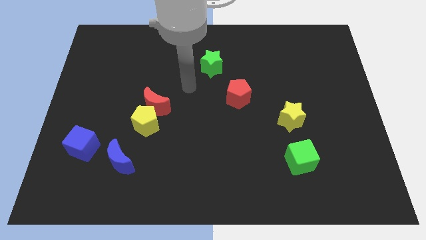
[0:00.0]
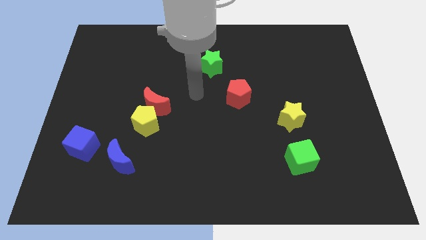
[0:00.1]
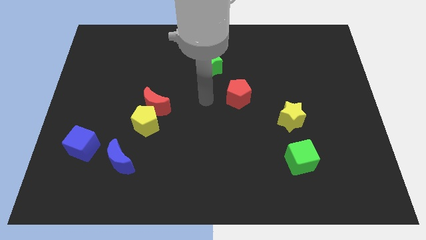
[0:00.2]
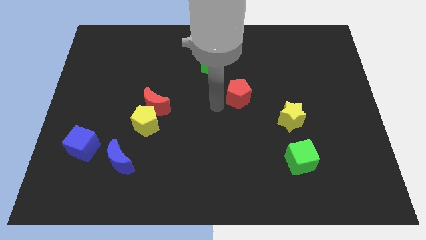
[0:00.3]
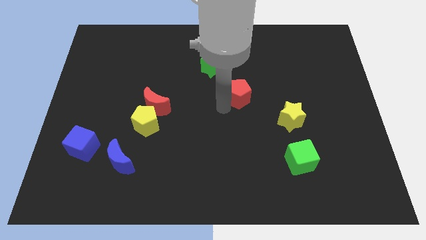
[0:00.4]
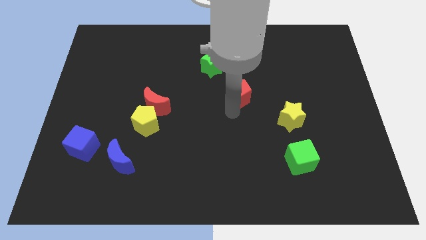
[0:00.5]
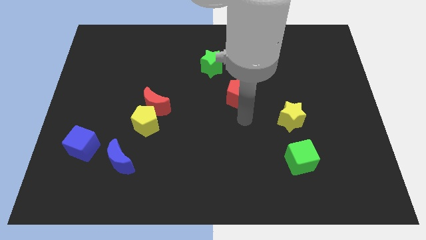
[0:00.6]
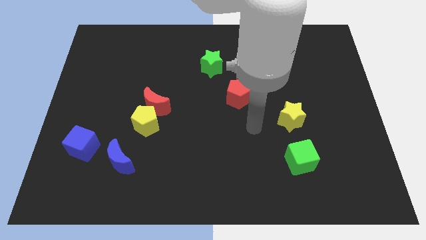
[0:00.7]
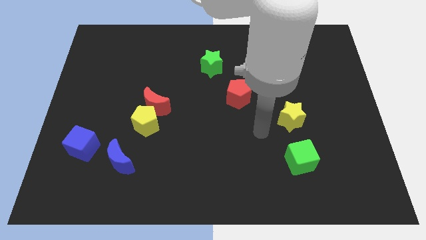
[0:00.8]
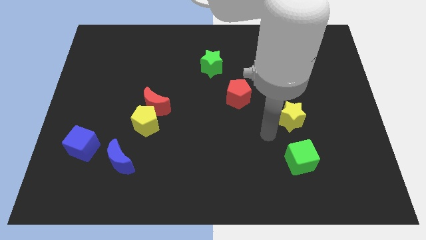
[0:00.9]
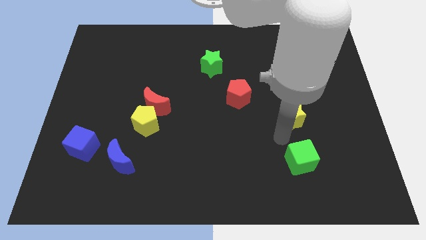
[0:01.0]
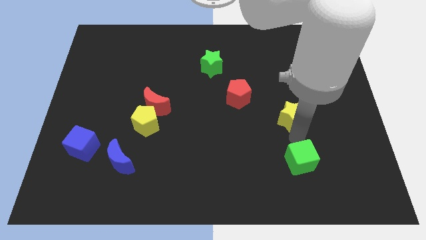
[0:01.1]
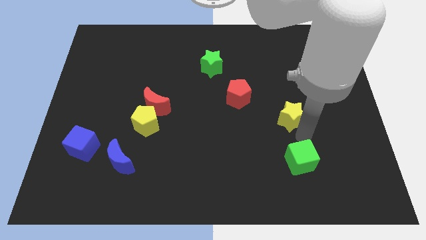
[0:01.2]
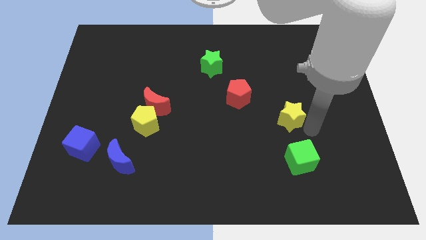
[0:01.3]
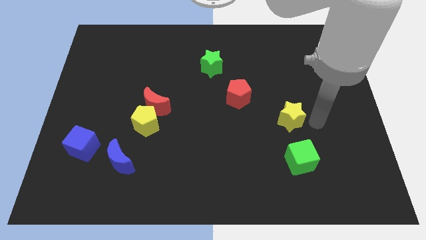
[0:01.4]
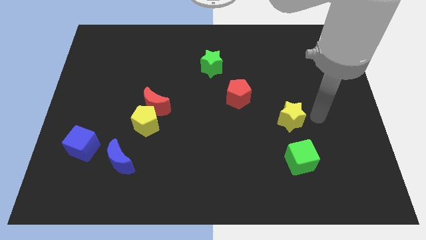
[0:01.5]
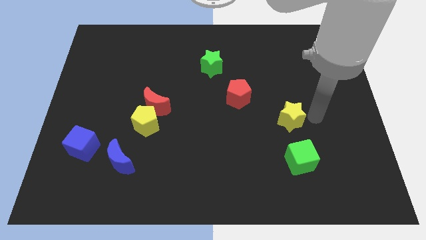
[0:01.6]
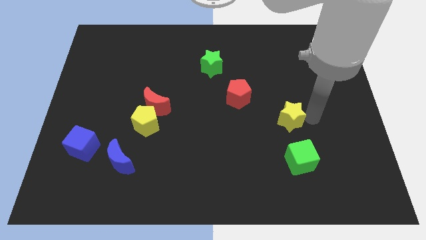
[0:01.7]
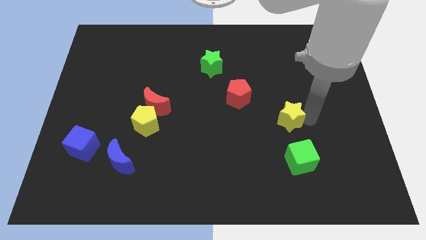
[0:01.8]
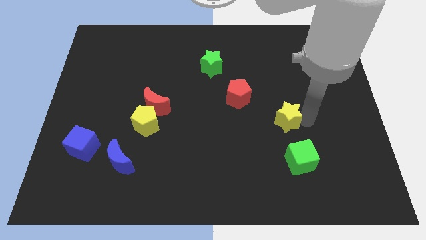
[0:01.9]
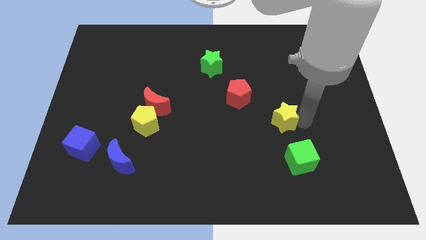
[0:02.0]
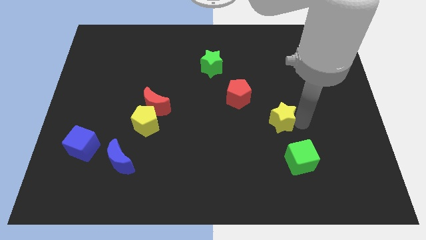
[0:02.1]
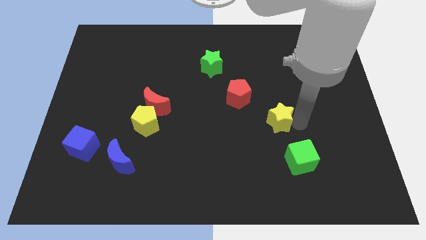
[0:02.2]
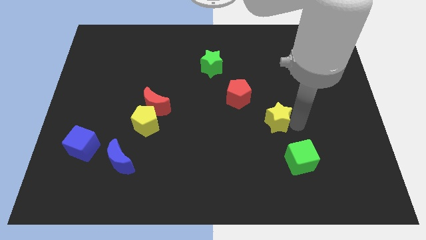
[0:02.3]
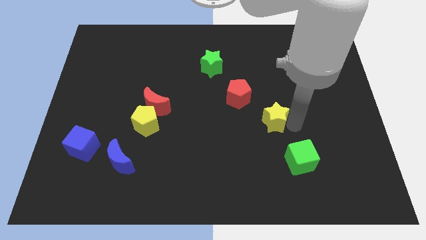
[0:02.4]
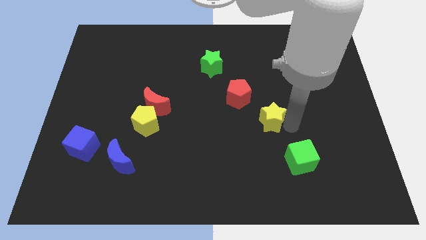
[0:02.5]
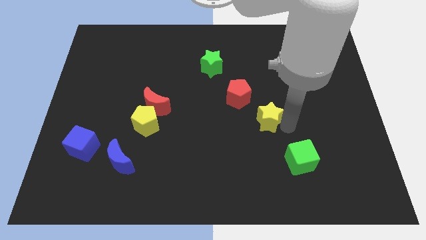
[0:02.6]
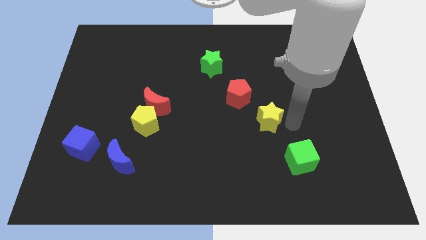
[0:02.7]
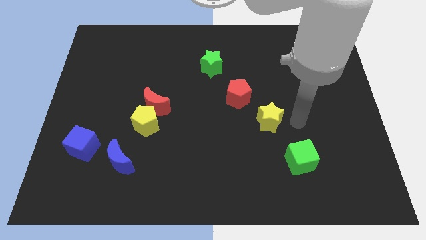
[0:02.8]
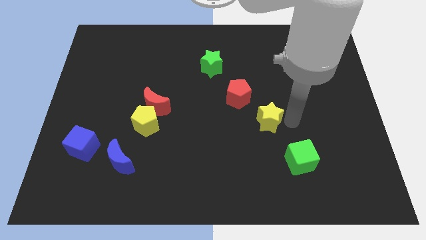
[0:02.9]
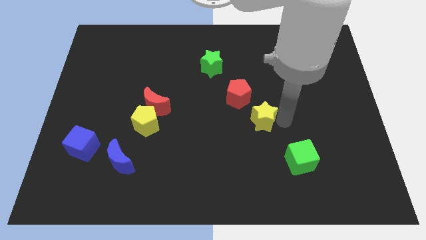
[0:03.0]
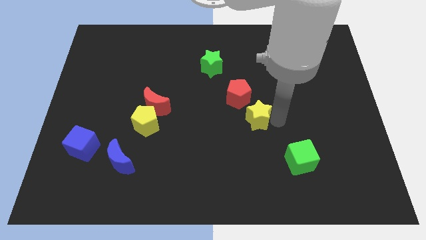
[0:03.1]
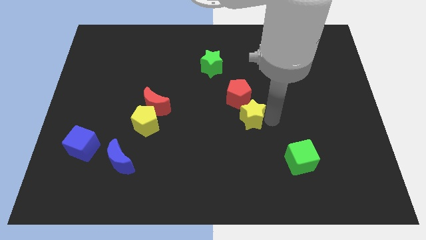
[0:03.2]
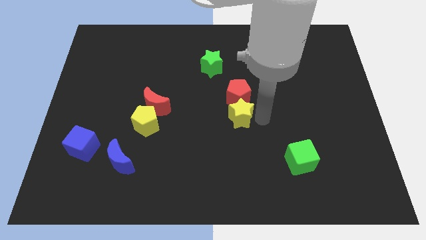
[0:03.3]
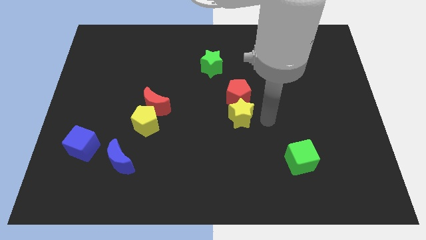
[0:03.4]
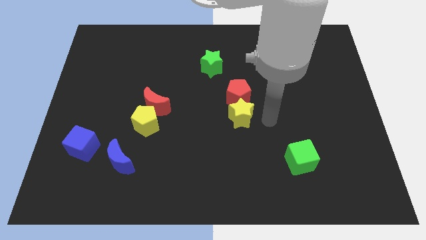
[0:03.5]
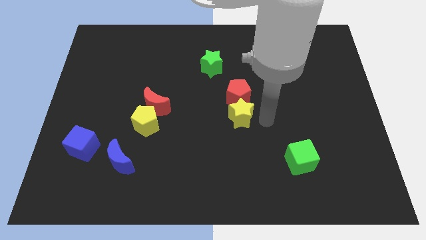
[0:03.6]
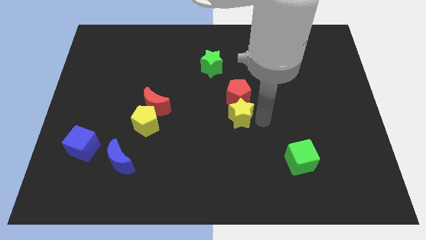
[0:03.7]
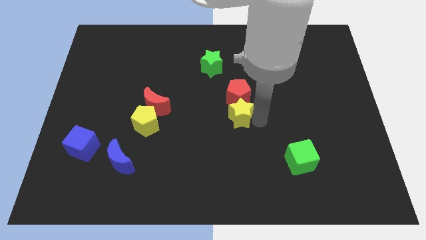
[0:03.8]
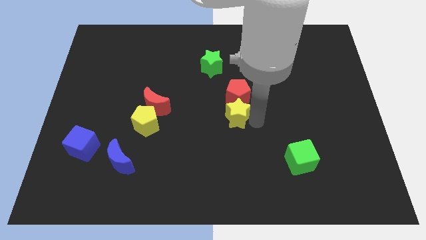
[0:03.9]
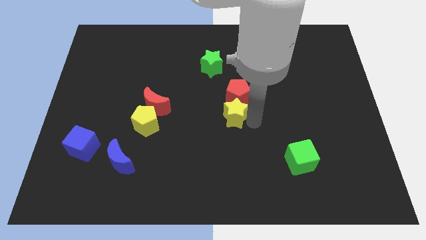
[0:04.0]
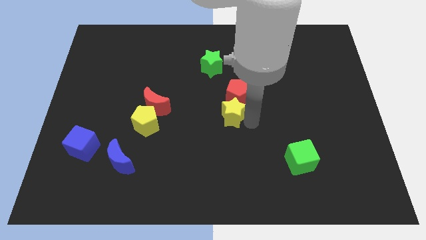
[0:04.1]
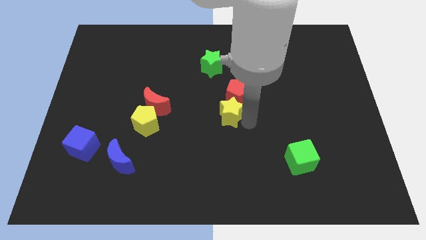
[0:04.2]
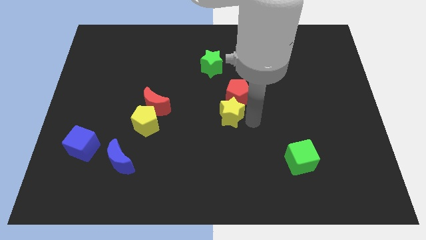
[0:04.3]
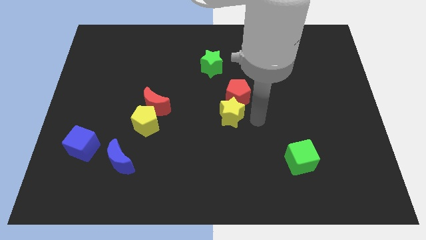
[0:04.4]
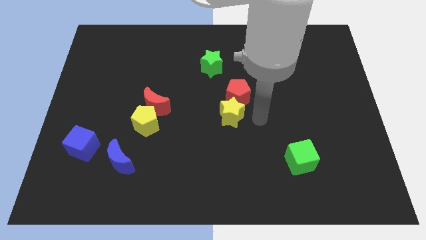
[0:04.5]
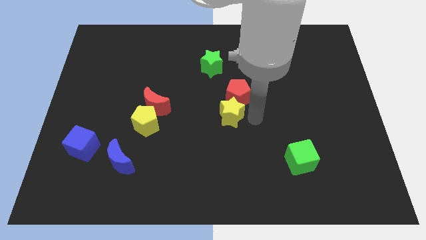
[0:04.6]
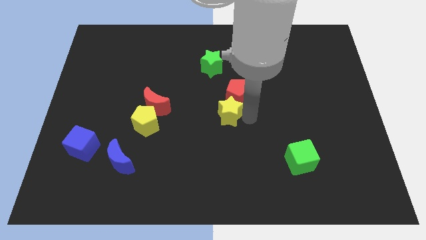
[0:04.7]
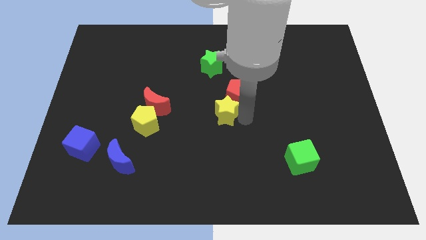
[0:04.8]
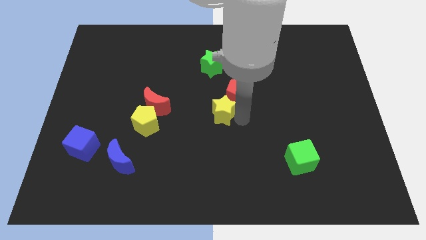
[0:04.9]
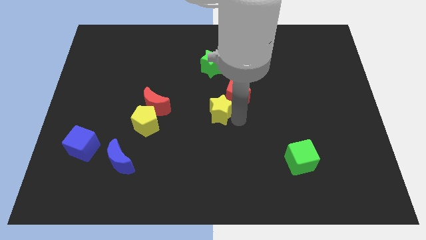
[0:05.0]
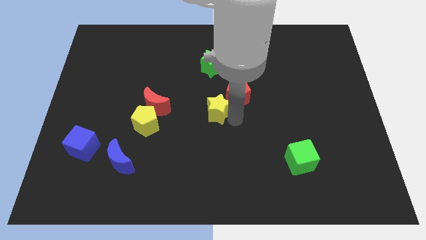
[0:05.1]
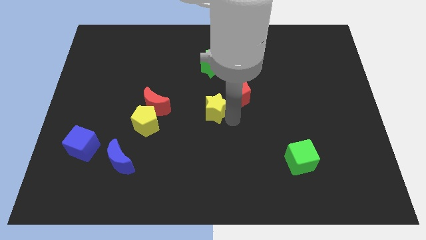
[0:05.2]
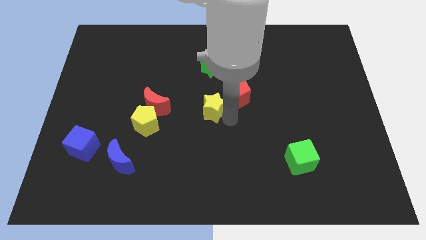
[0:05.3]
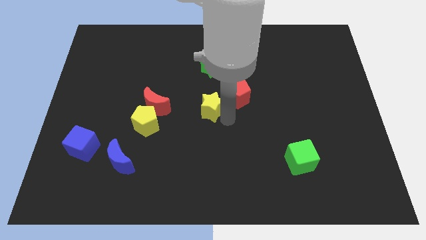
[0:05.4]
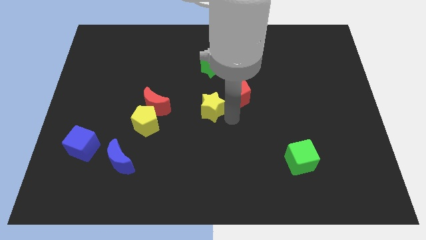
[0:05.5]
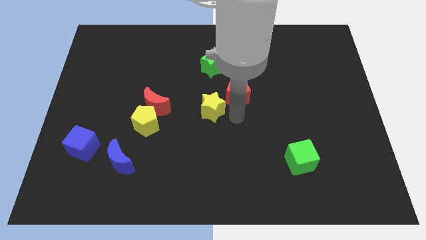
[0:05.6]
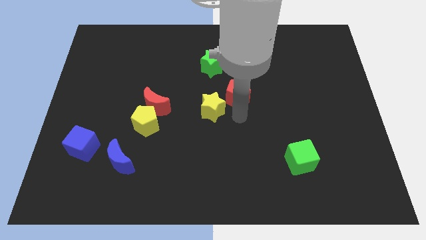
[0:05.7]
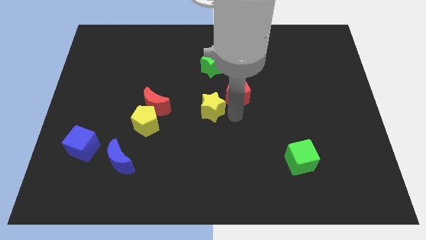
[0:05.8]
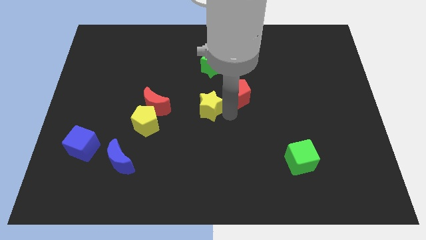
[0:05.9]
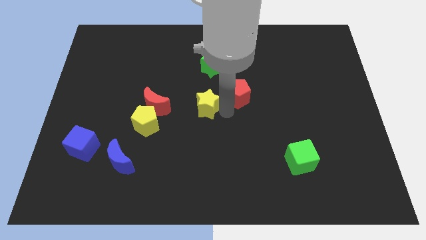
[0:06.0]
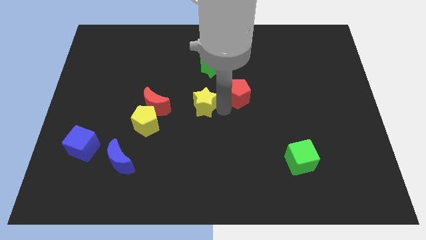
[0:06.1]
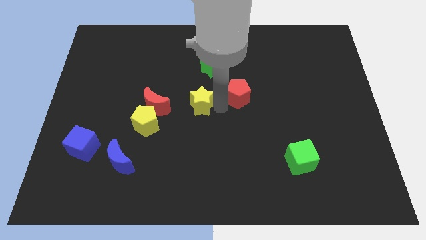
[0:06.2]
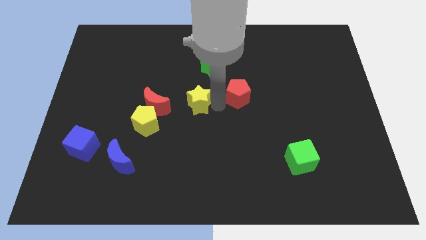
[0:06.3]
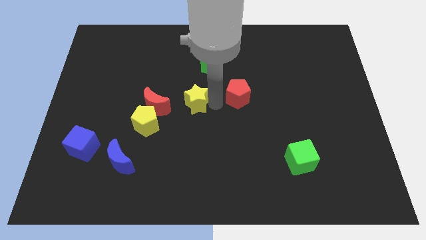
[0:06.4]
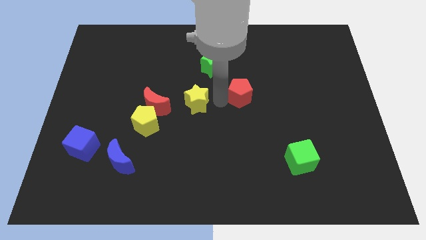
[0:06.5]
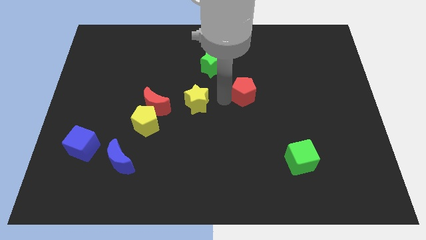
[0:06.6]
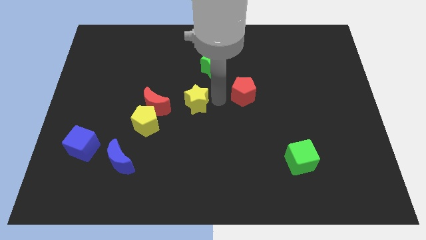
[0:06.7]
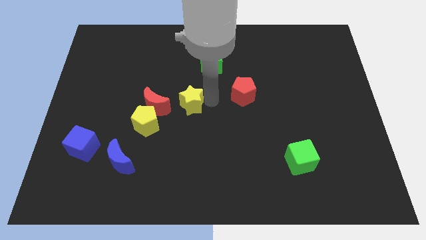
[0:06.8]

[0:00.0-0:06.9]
slide the yellow star to the top right side of the yellow pentagon

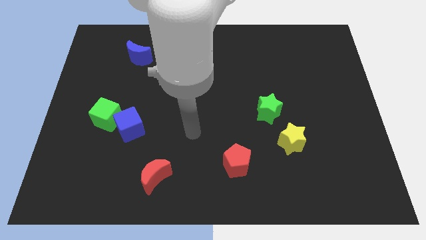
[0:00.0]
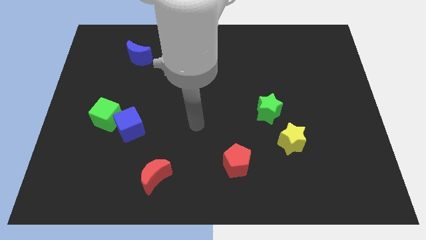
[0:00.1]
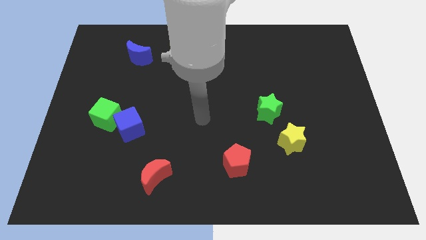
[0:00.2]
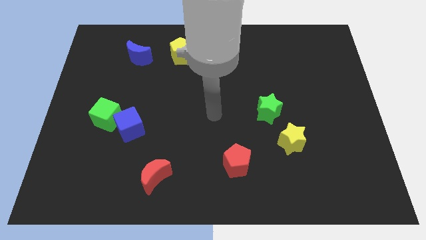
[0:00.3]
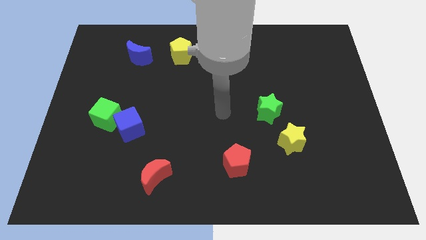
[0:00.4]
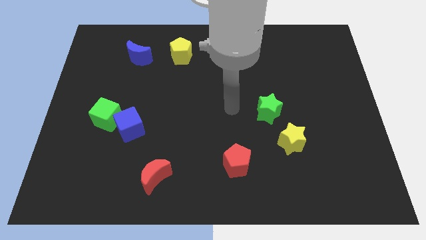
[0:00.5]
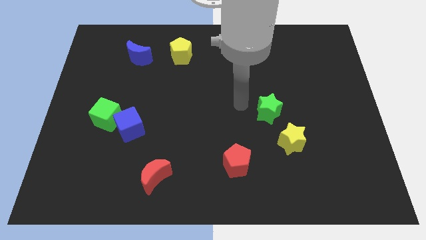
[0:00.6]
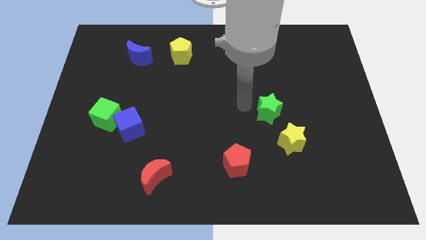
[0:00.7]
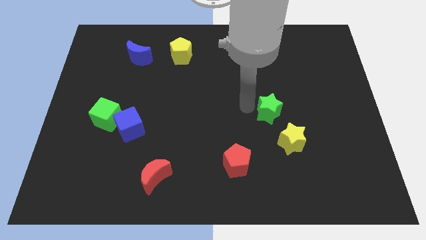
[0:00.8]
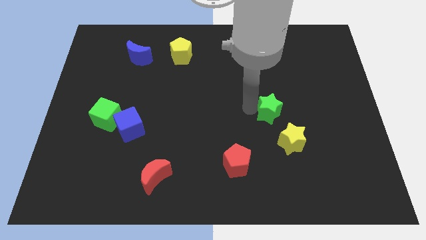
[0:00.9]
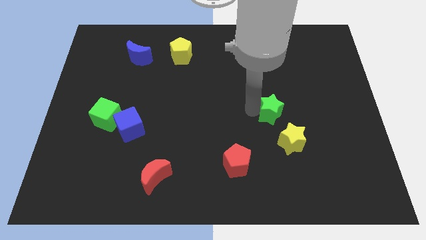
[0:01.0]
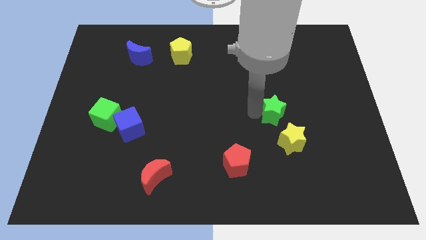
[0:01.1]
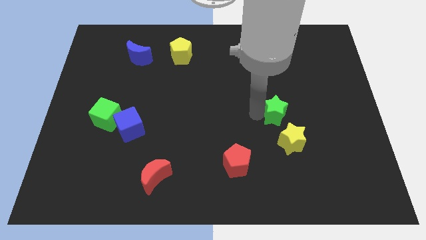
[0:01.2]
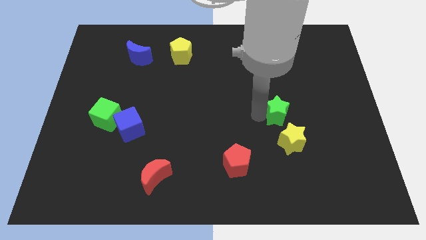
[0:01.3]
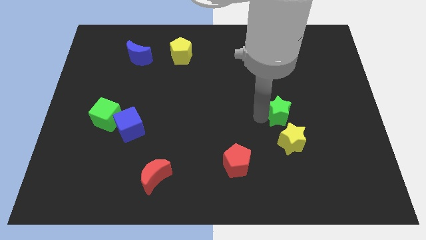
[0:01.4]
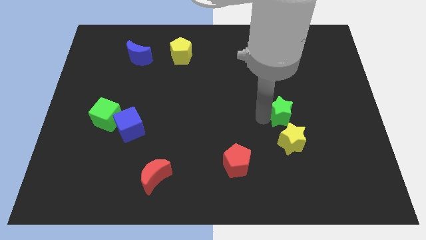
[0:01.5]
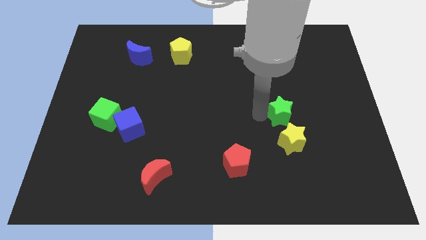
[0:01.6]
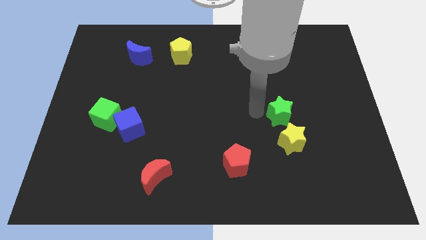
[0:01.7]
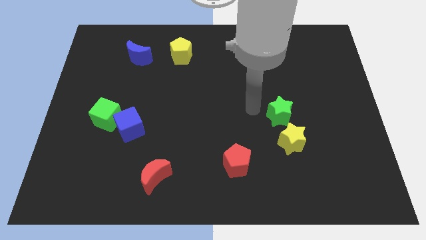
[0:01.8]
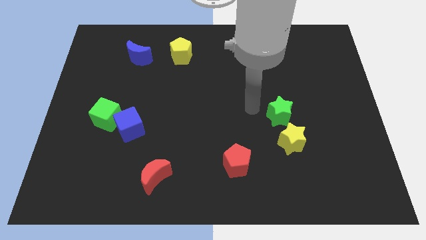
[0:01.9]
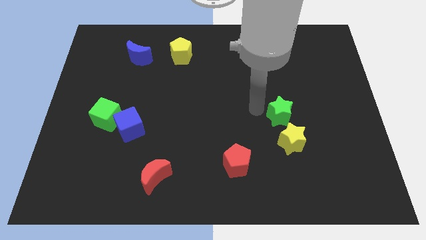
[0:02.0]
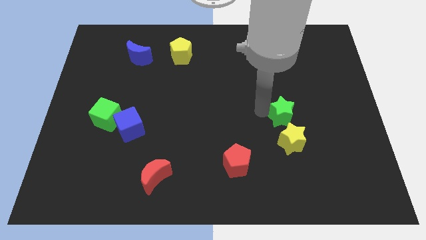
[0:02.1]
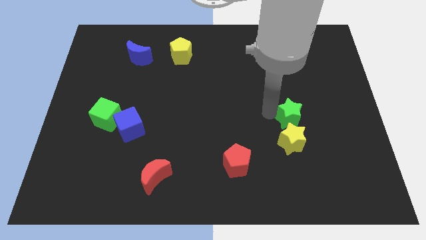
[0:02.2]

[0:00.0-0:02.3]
move the green star diagonally up and to the right of the yellow star
